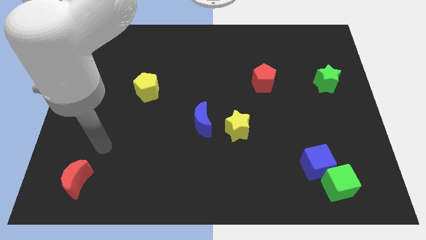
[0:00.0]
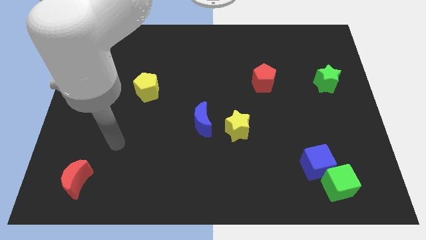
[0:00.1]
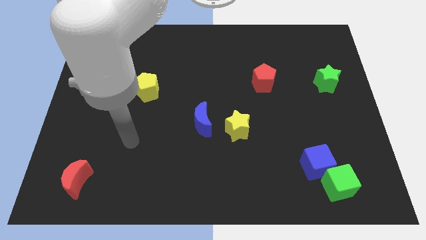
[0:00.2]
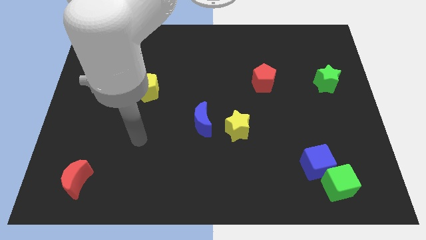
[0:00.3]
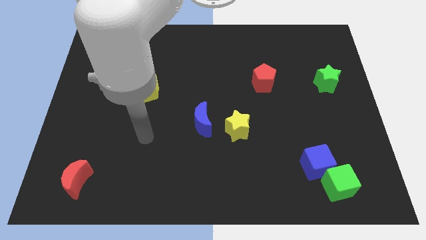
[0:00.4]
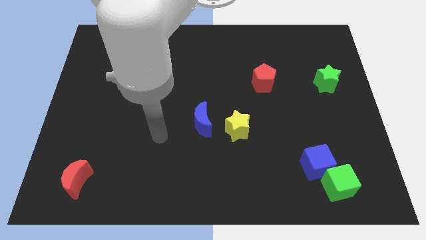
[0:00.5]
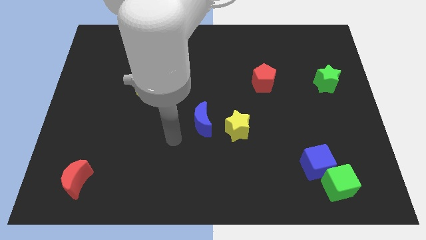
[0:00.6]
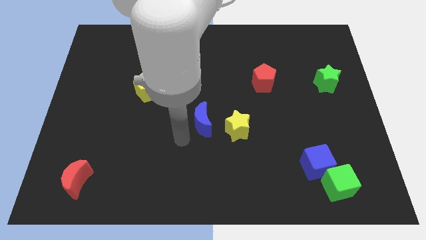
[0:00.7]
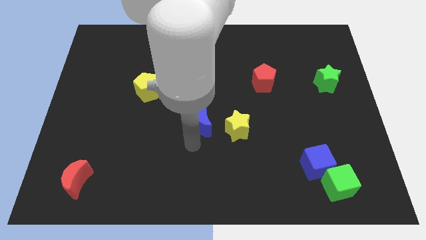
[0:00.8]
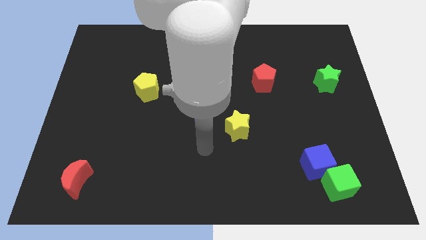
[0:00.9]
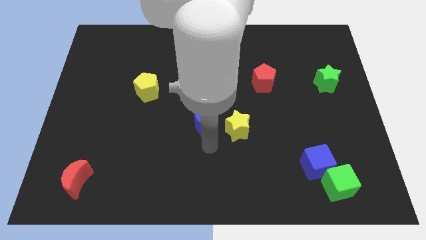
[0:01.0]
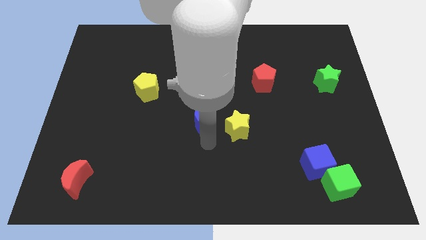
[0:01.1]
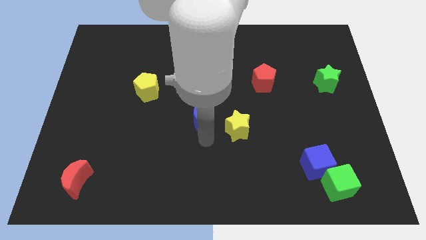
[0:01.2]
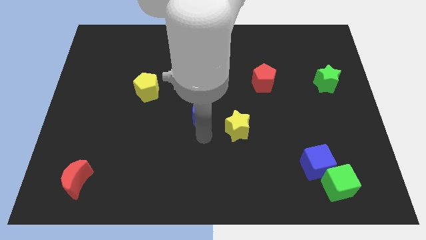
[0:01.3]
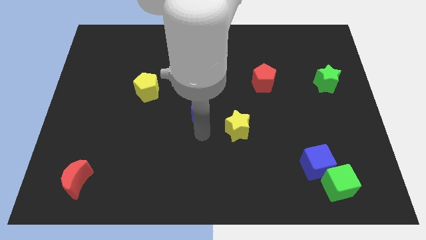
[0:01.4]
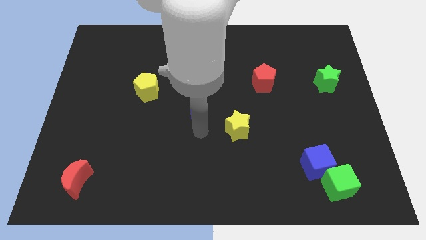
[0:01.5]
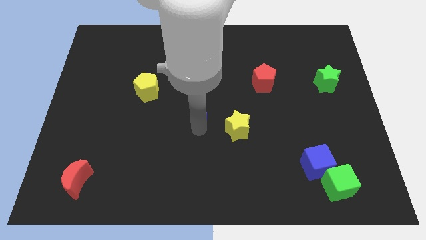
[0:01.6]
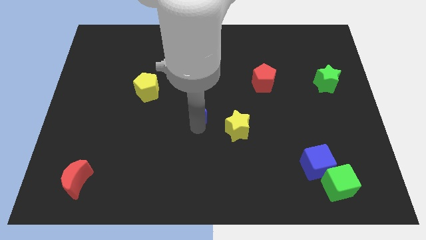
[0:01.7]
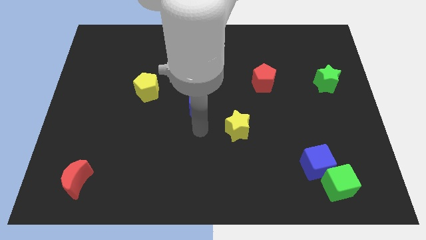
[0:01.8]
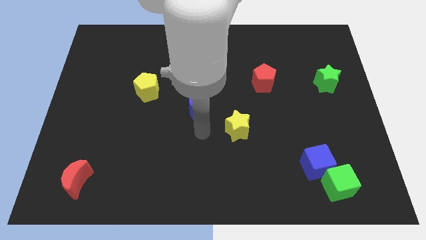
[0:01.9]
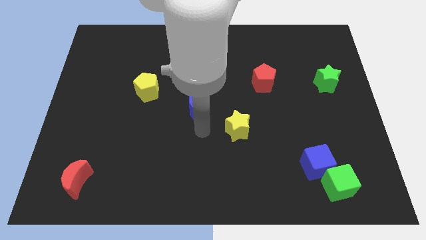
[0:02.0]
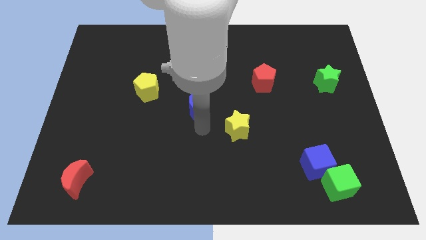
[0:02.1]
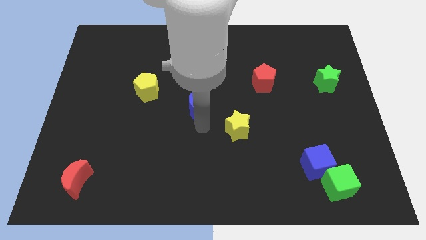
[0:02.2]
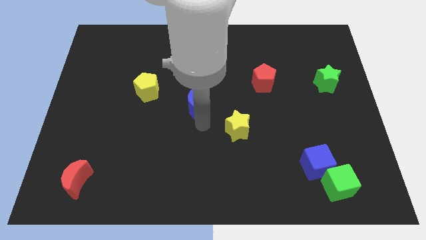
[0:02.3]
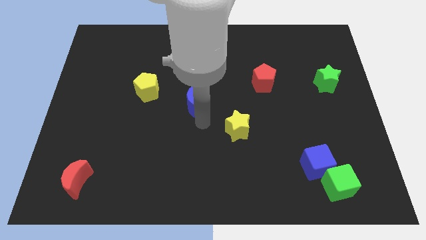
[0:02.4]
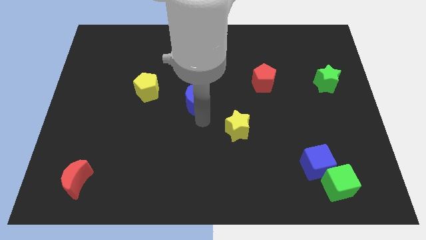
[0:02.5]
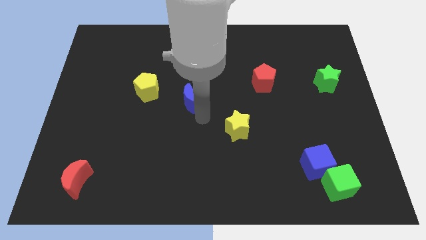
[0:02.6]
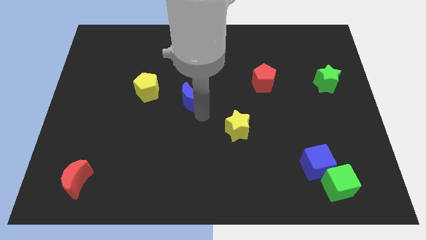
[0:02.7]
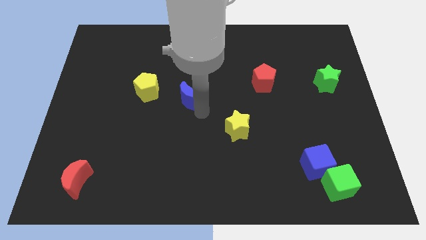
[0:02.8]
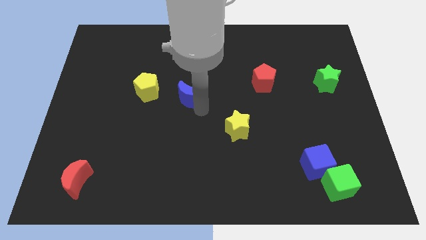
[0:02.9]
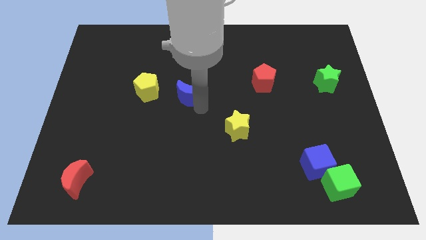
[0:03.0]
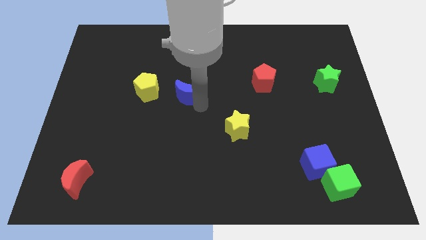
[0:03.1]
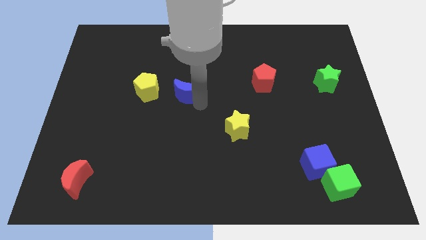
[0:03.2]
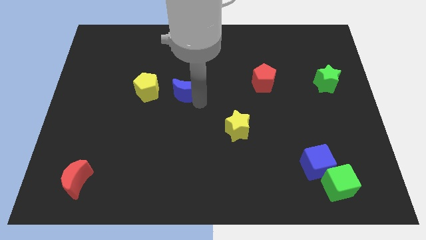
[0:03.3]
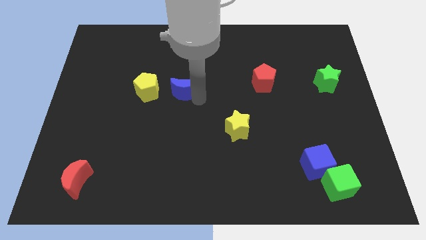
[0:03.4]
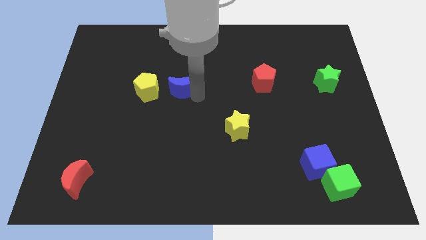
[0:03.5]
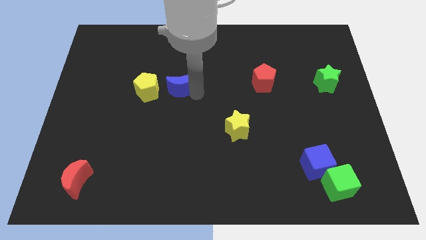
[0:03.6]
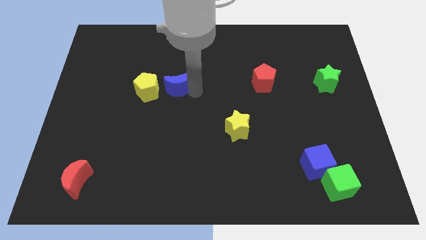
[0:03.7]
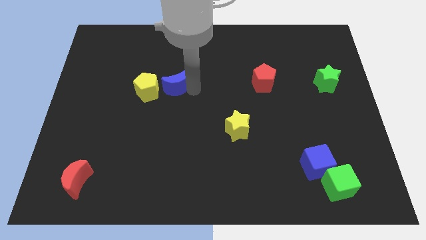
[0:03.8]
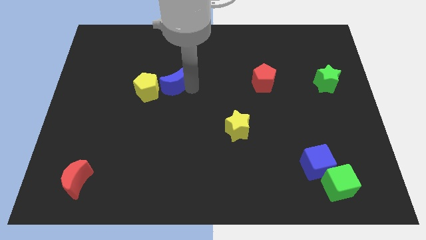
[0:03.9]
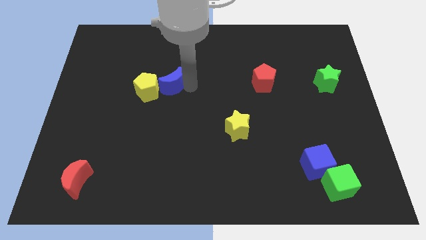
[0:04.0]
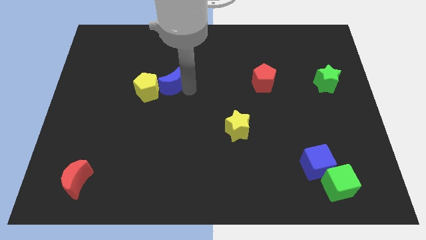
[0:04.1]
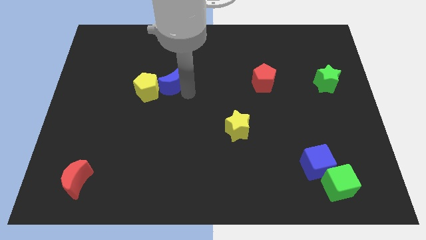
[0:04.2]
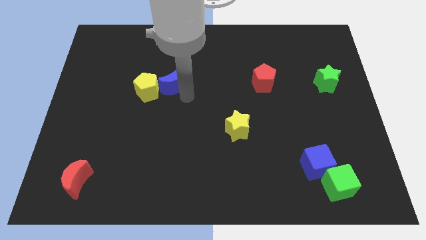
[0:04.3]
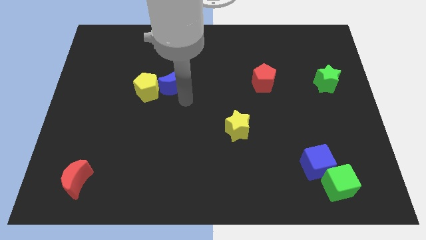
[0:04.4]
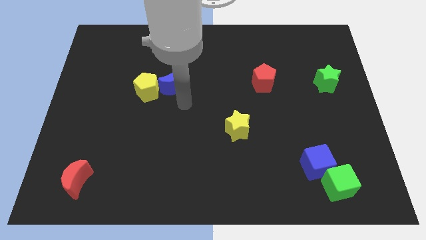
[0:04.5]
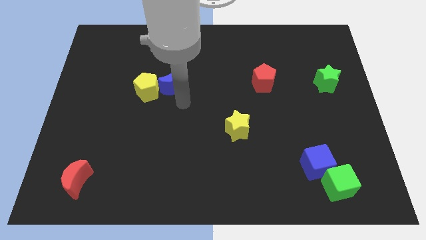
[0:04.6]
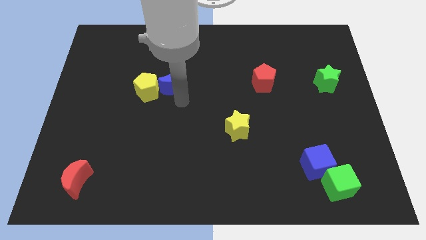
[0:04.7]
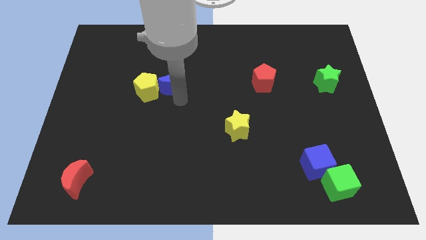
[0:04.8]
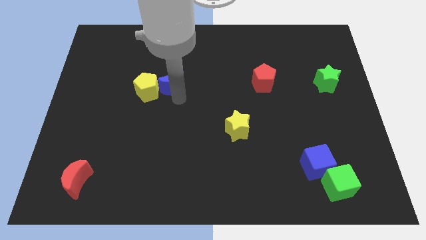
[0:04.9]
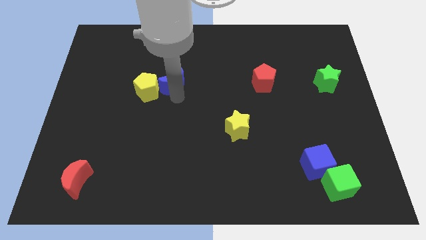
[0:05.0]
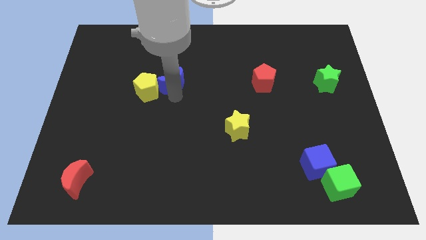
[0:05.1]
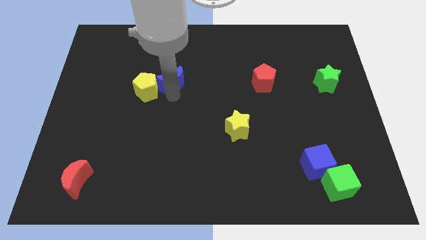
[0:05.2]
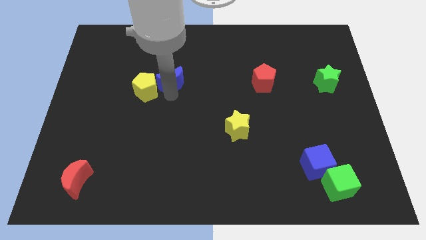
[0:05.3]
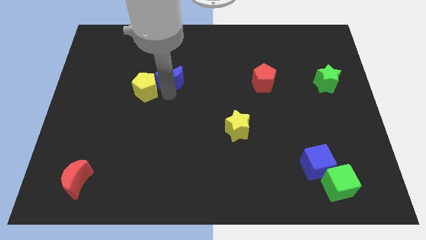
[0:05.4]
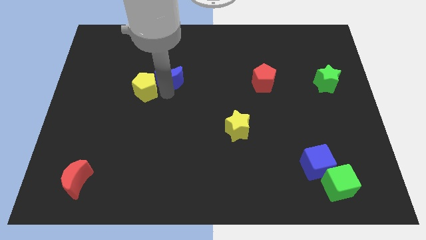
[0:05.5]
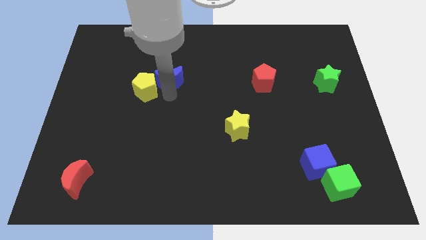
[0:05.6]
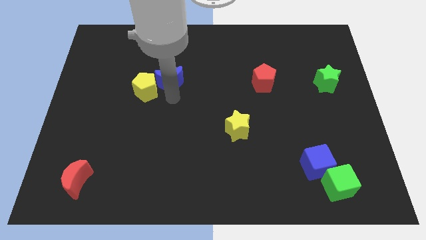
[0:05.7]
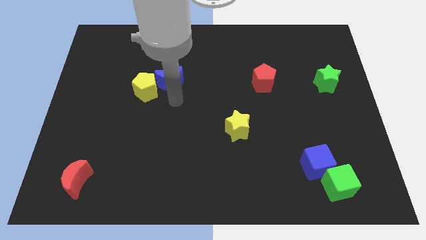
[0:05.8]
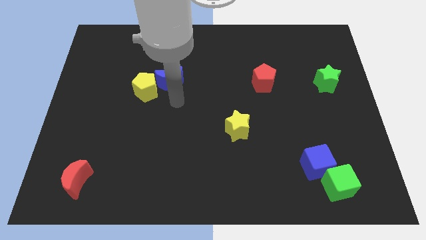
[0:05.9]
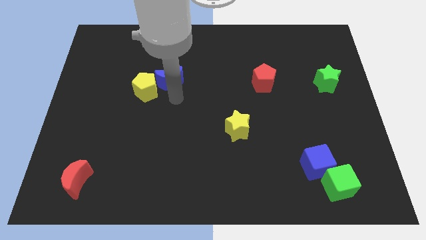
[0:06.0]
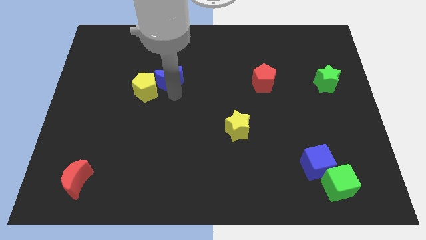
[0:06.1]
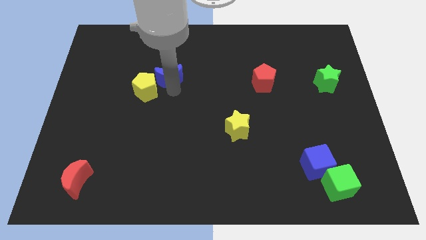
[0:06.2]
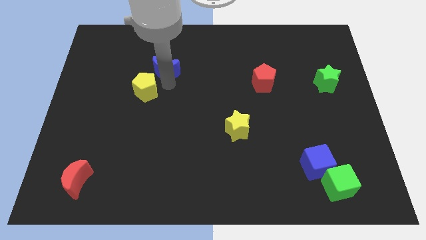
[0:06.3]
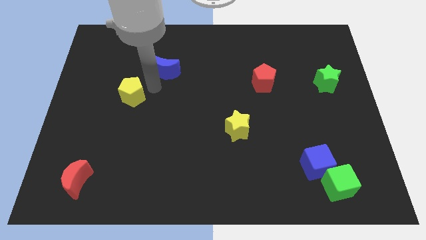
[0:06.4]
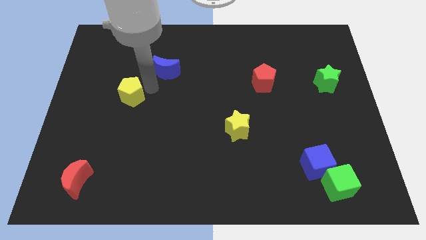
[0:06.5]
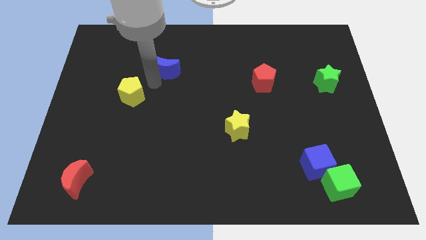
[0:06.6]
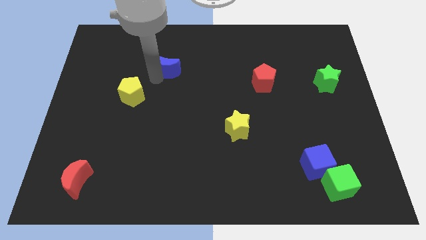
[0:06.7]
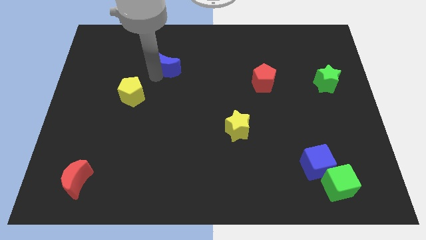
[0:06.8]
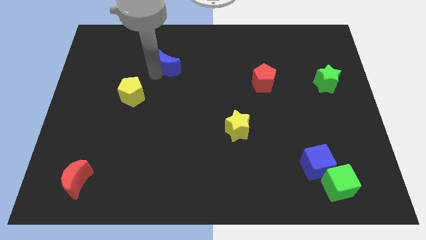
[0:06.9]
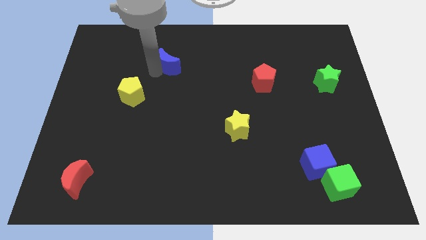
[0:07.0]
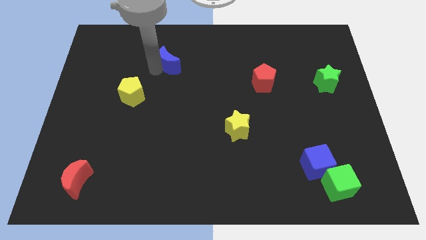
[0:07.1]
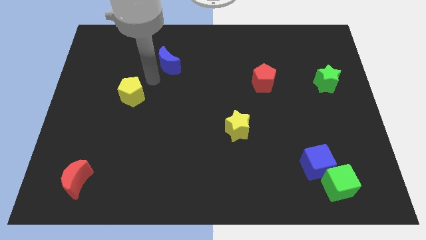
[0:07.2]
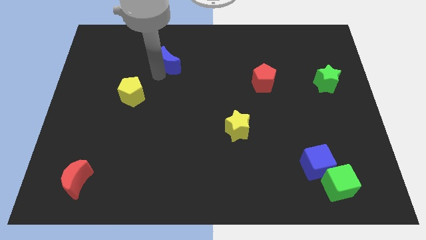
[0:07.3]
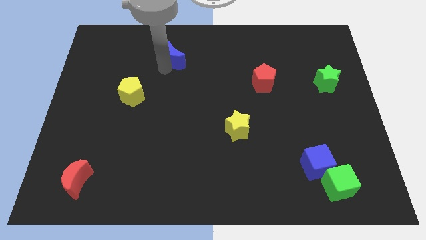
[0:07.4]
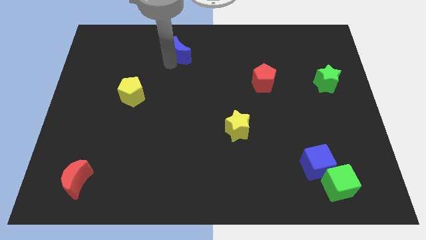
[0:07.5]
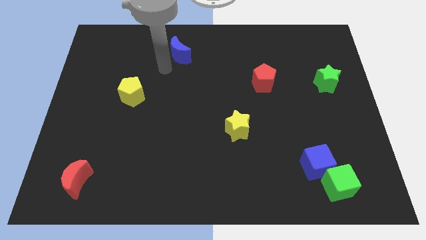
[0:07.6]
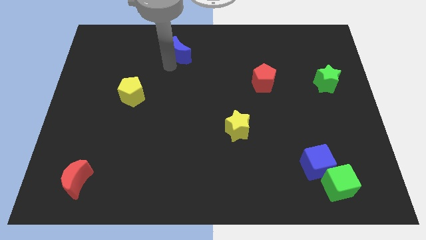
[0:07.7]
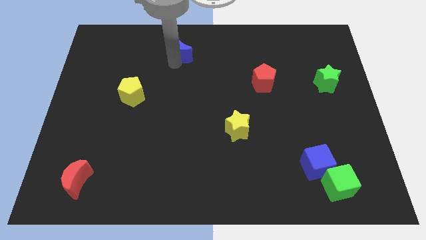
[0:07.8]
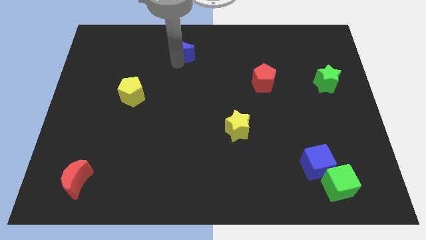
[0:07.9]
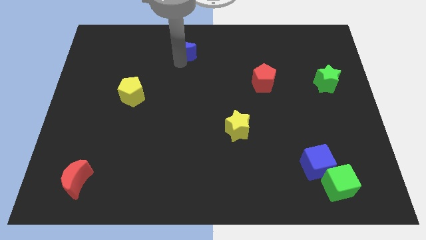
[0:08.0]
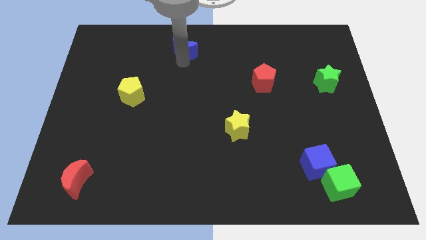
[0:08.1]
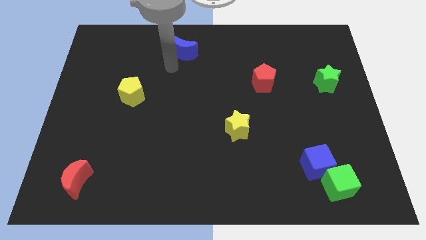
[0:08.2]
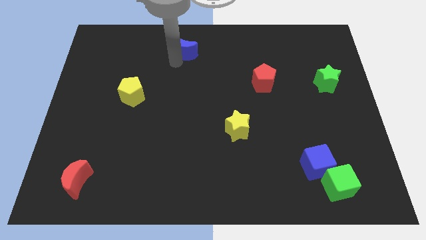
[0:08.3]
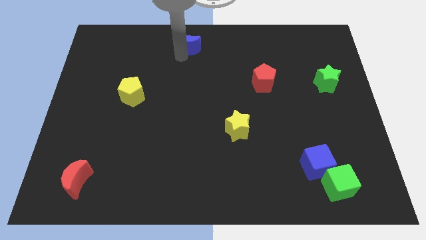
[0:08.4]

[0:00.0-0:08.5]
move the blue moon to the top side
